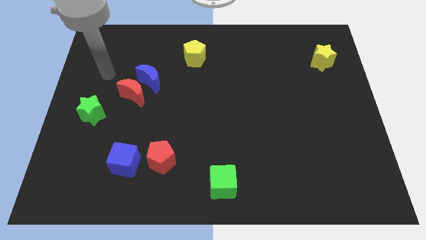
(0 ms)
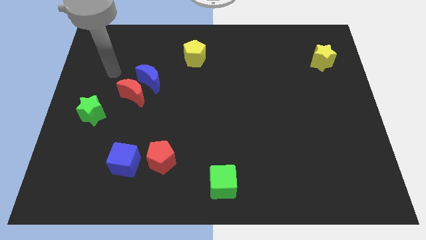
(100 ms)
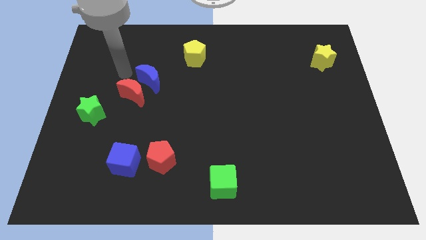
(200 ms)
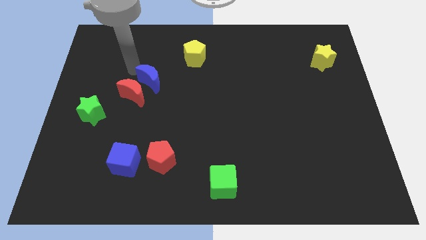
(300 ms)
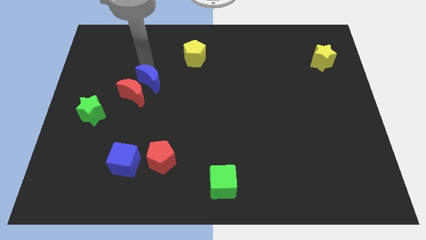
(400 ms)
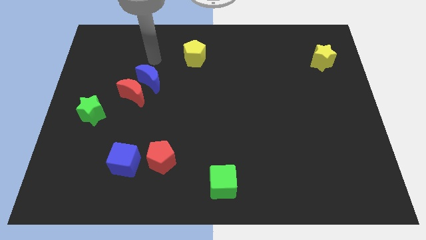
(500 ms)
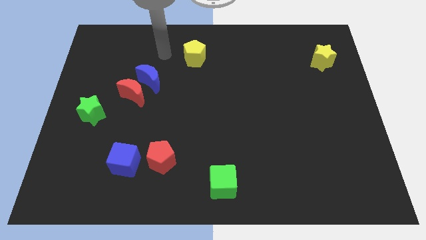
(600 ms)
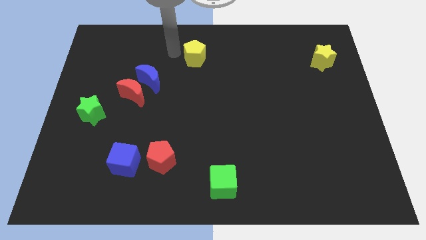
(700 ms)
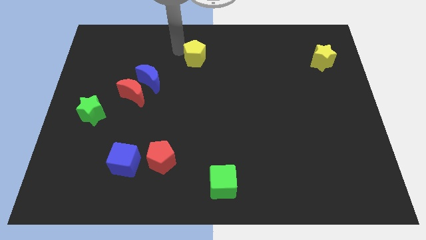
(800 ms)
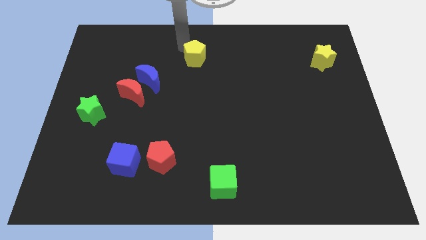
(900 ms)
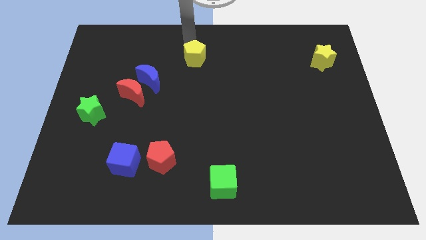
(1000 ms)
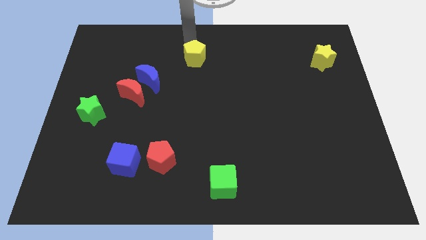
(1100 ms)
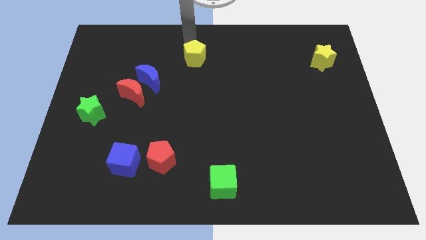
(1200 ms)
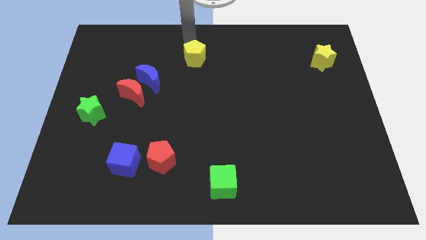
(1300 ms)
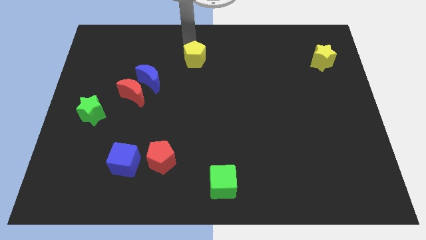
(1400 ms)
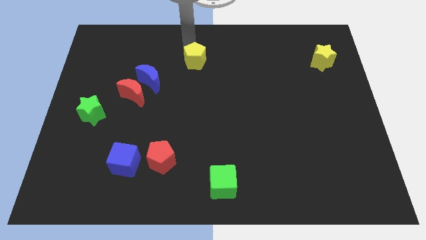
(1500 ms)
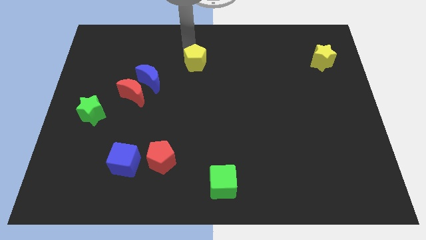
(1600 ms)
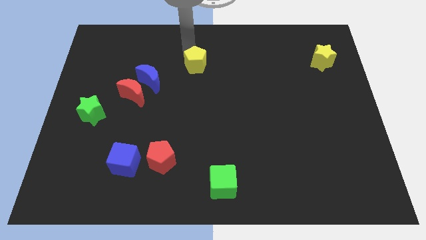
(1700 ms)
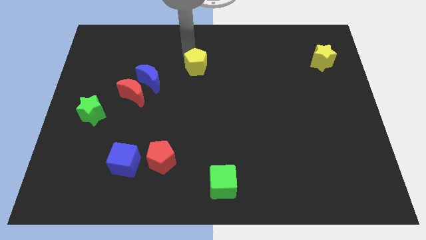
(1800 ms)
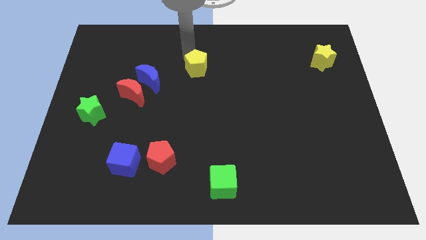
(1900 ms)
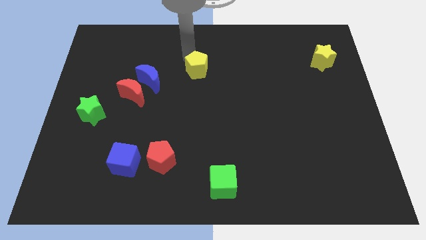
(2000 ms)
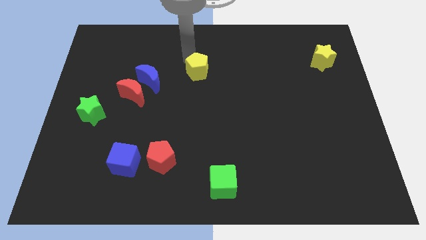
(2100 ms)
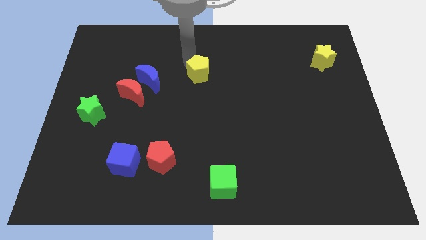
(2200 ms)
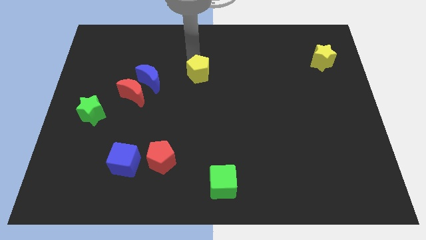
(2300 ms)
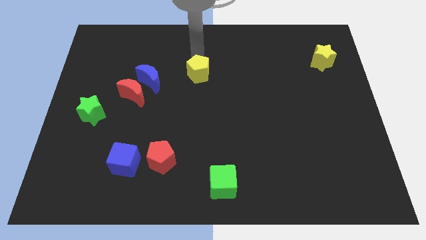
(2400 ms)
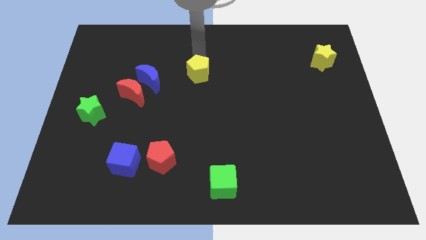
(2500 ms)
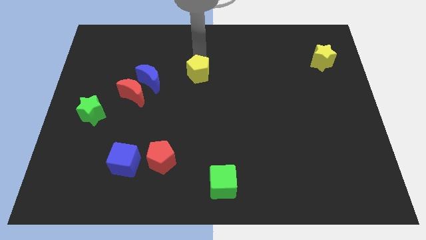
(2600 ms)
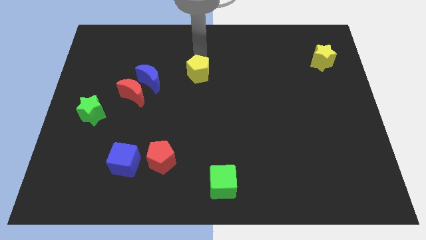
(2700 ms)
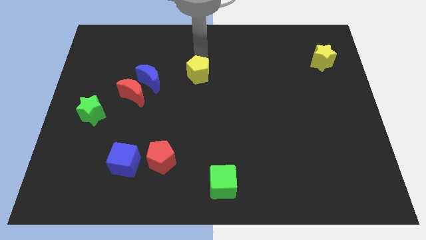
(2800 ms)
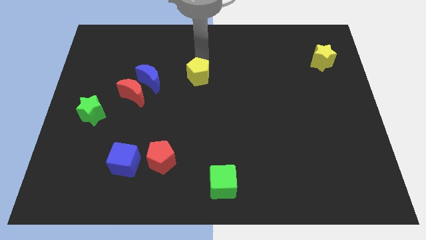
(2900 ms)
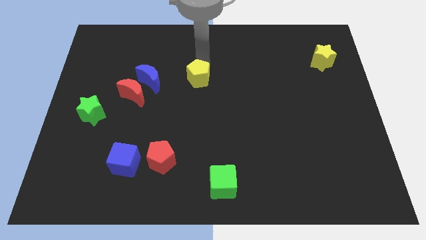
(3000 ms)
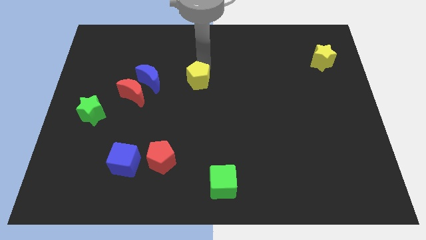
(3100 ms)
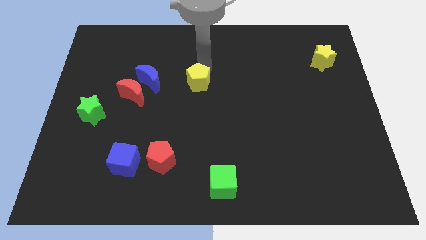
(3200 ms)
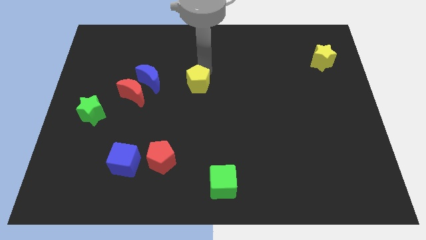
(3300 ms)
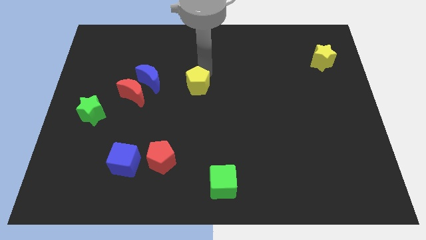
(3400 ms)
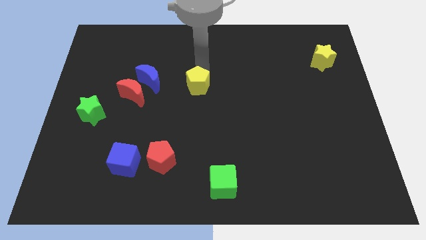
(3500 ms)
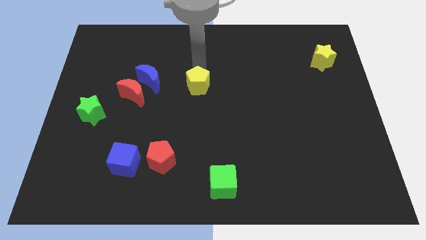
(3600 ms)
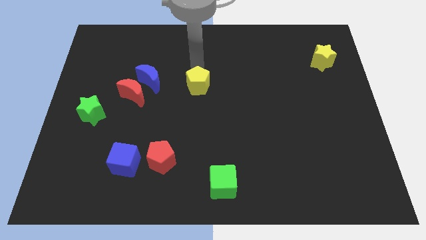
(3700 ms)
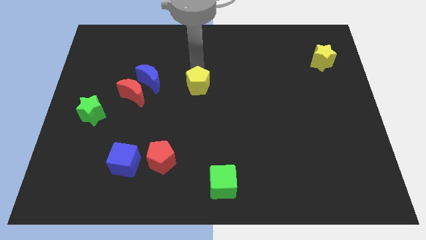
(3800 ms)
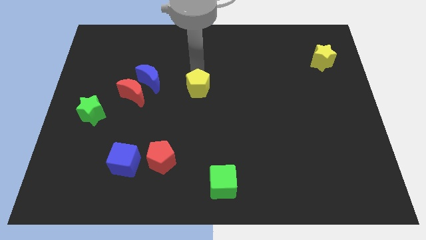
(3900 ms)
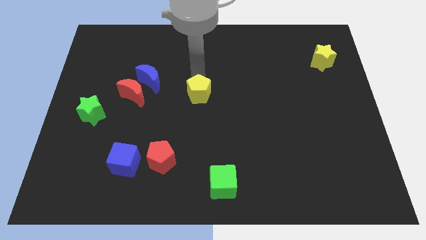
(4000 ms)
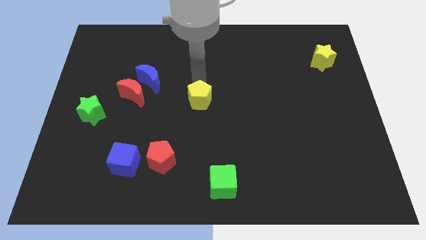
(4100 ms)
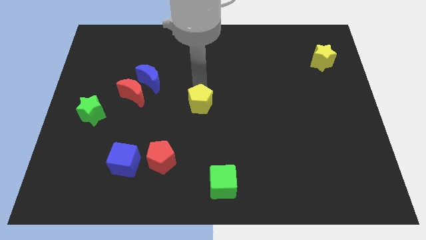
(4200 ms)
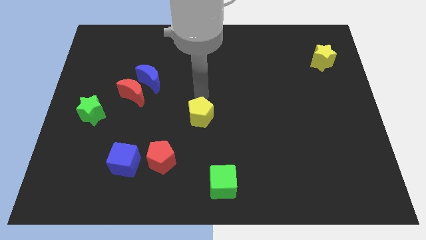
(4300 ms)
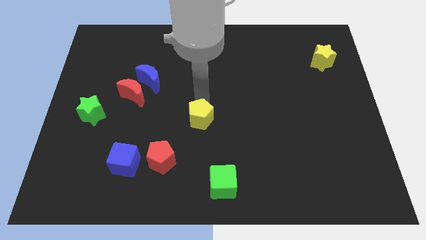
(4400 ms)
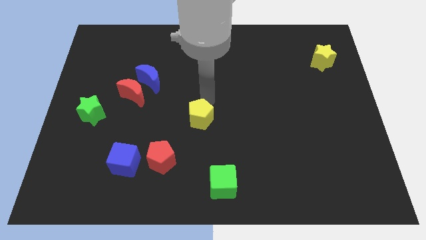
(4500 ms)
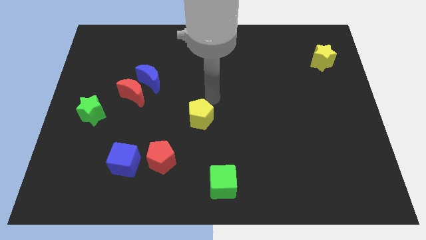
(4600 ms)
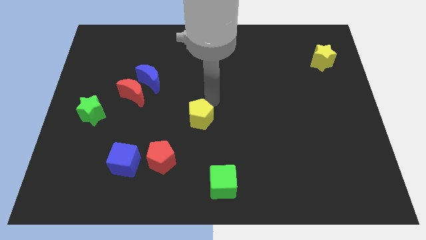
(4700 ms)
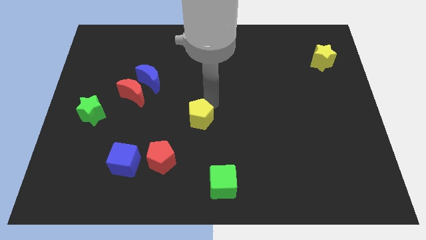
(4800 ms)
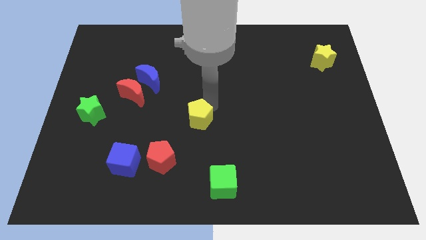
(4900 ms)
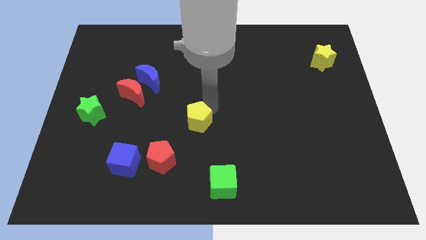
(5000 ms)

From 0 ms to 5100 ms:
put the yellow pentagon to the top right side of the red pentagon

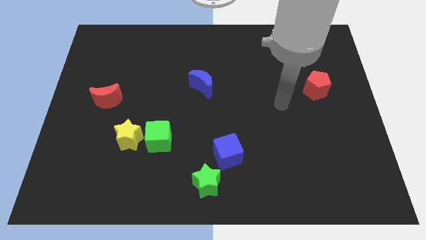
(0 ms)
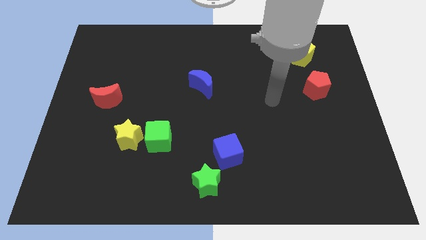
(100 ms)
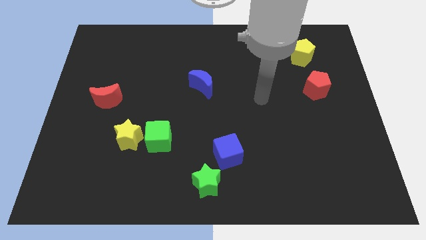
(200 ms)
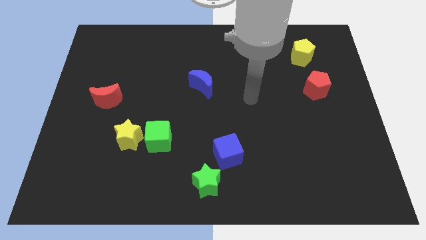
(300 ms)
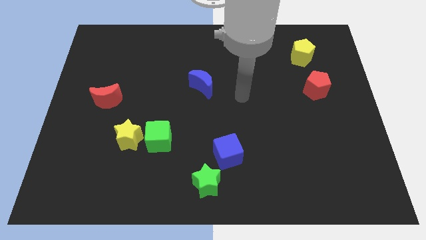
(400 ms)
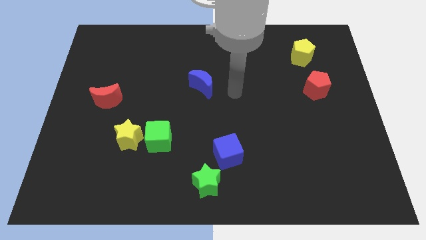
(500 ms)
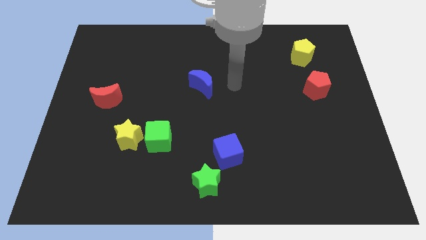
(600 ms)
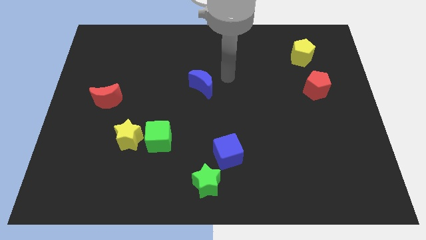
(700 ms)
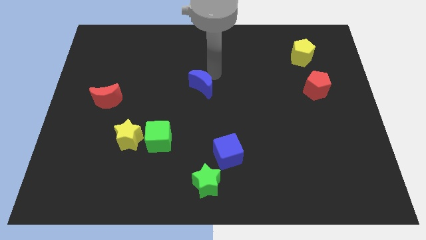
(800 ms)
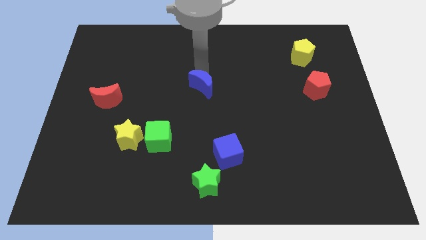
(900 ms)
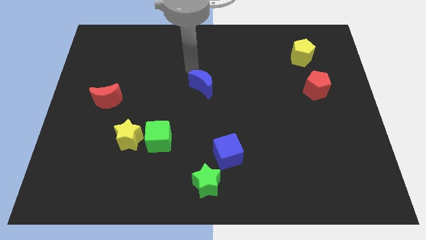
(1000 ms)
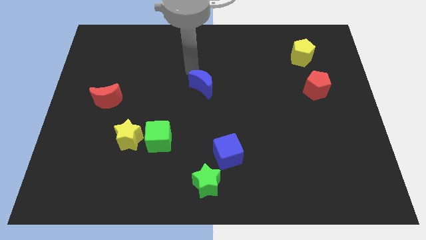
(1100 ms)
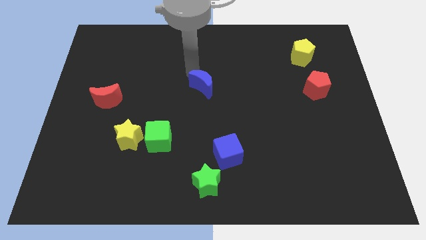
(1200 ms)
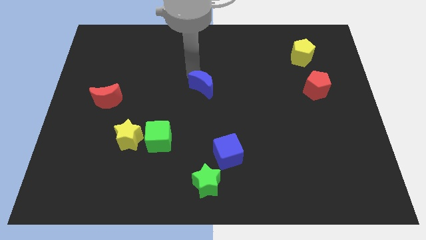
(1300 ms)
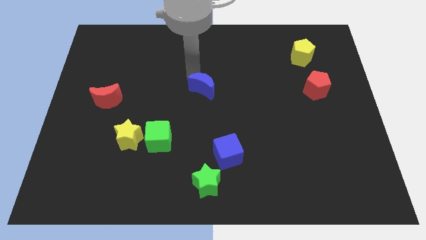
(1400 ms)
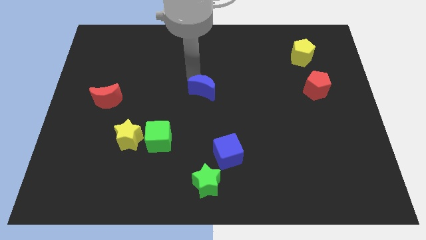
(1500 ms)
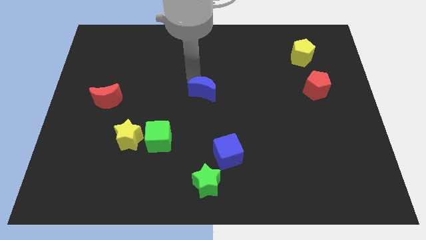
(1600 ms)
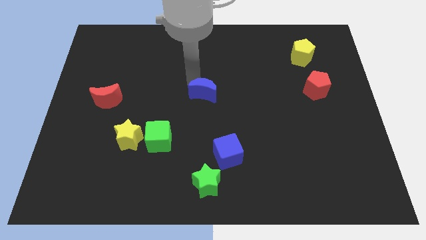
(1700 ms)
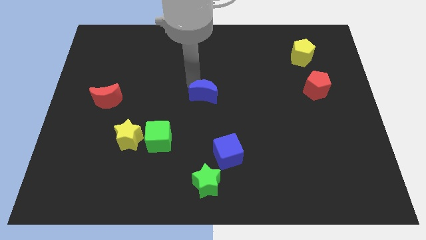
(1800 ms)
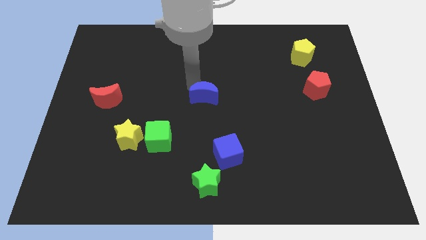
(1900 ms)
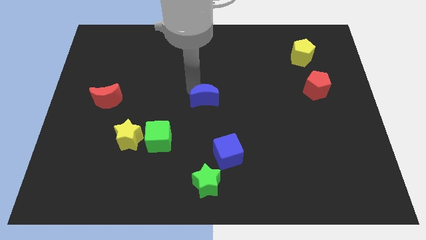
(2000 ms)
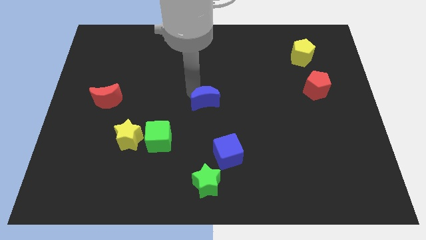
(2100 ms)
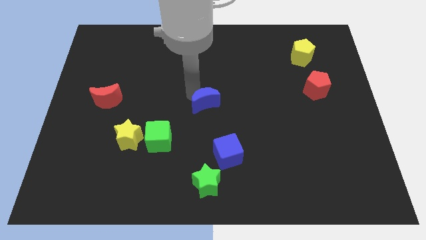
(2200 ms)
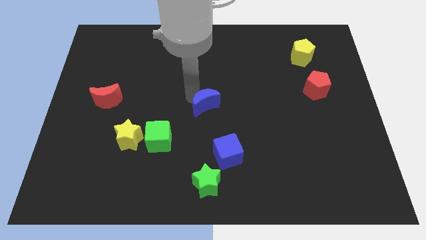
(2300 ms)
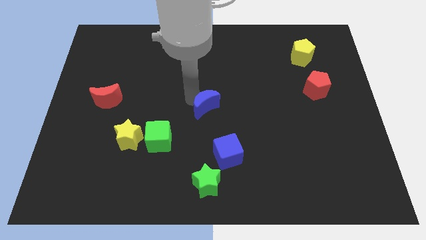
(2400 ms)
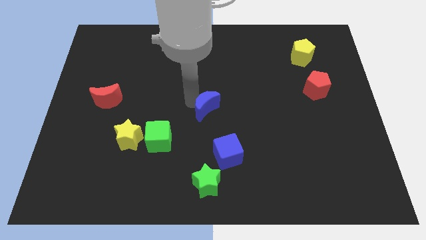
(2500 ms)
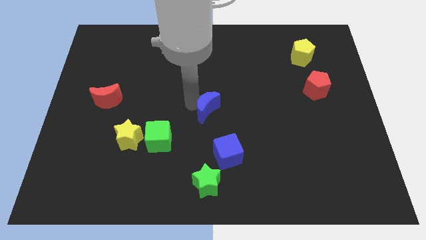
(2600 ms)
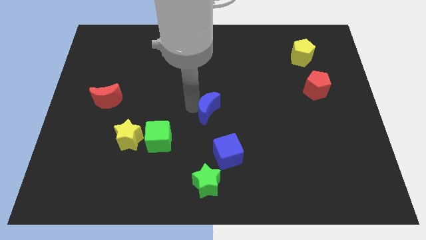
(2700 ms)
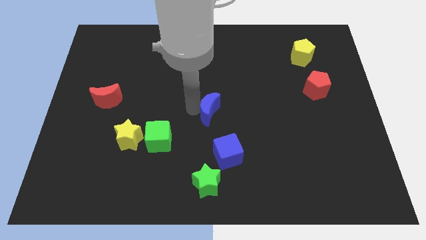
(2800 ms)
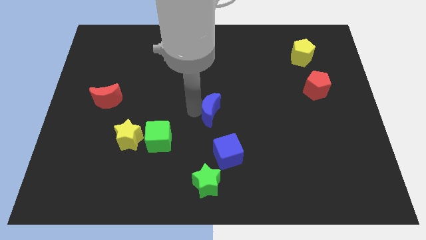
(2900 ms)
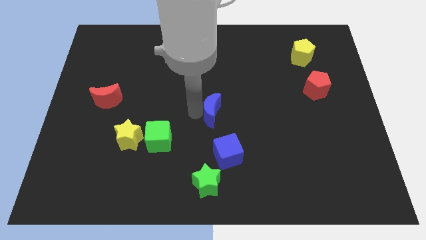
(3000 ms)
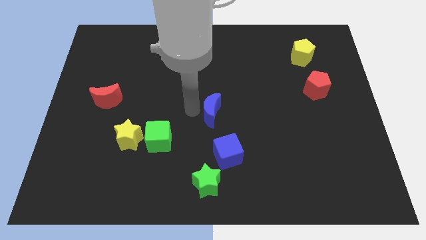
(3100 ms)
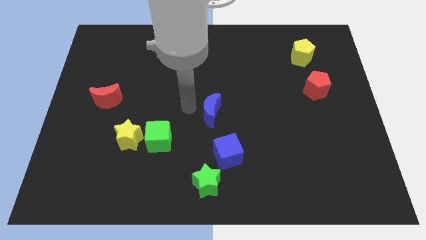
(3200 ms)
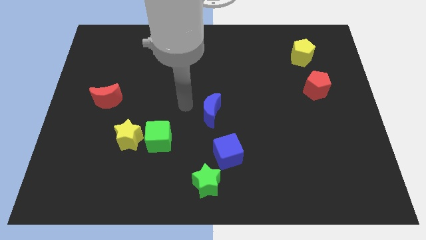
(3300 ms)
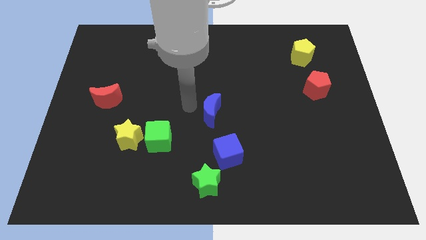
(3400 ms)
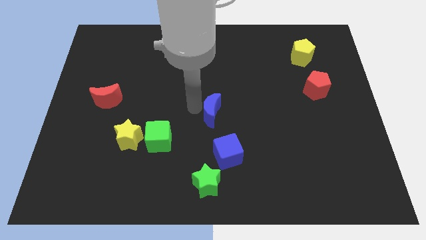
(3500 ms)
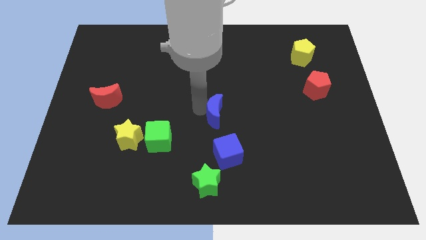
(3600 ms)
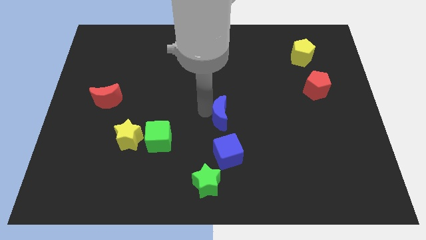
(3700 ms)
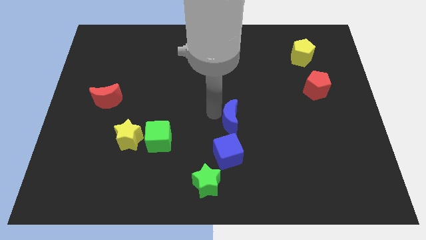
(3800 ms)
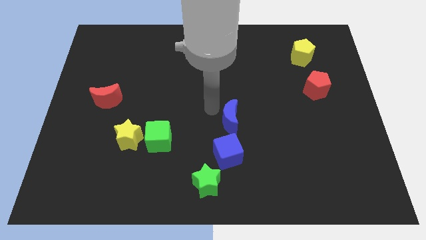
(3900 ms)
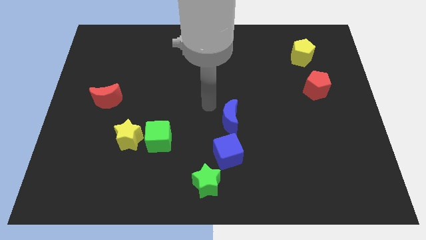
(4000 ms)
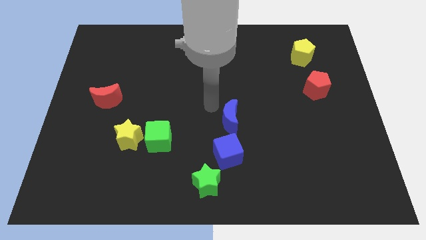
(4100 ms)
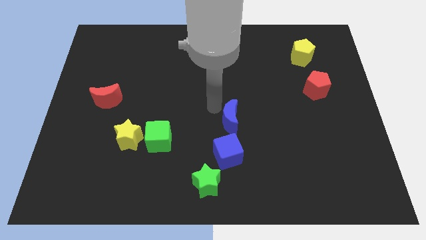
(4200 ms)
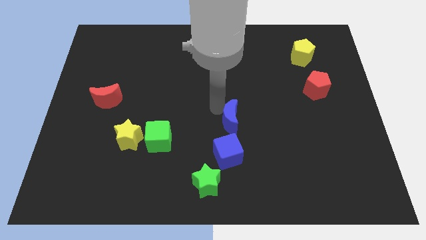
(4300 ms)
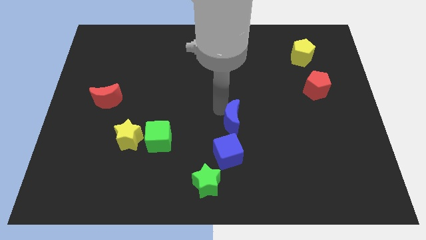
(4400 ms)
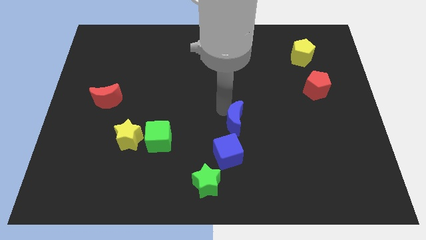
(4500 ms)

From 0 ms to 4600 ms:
push the blue moon to the top right side of the blue cube
